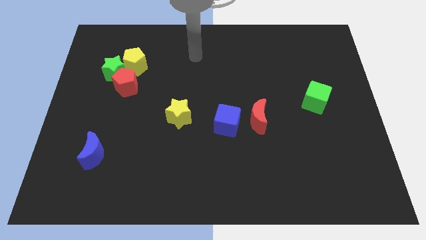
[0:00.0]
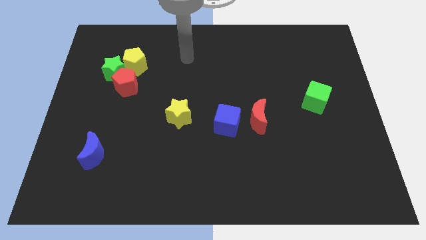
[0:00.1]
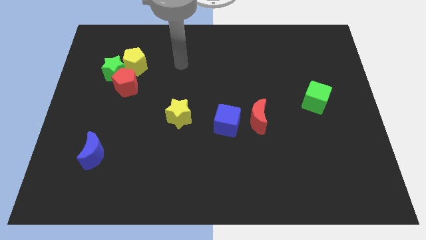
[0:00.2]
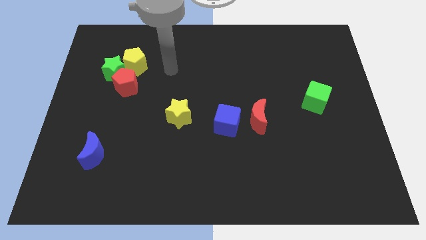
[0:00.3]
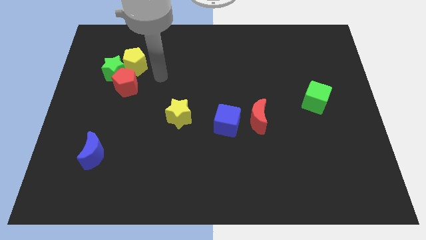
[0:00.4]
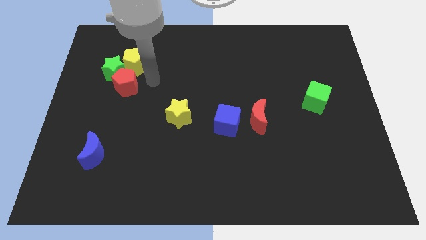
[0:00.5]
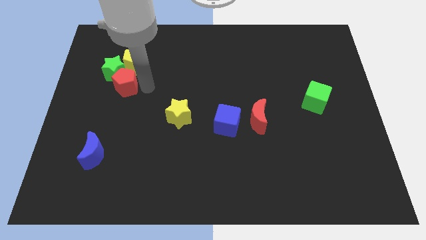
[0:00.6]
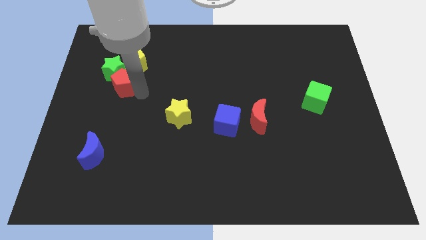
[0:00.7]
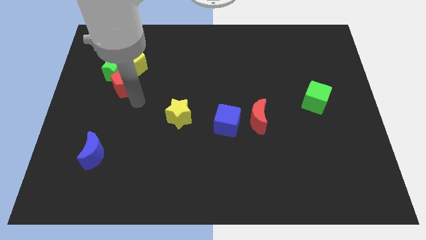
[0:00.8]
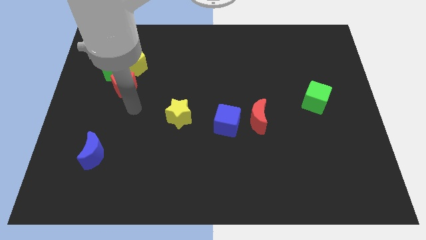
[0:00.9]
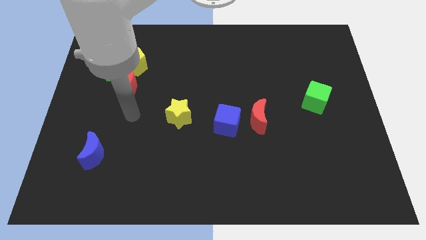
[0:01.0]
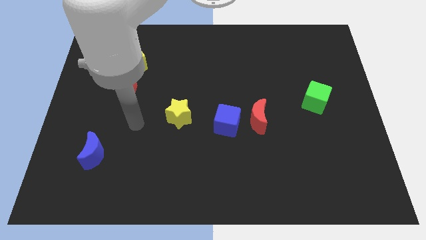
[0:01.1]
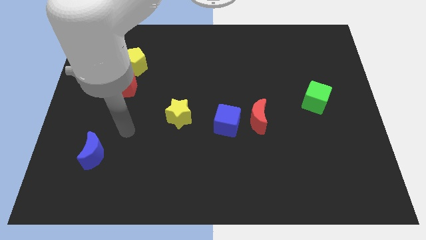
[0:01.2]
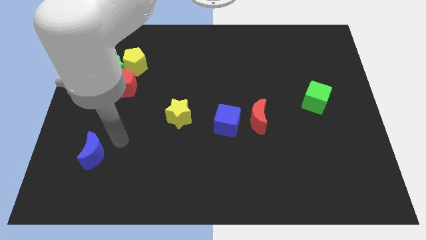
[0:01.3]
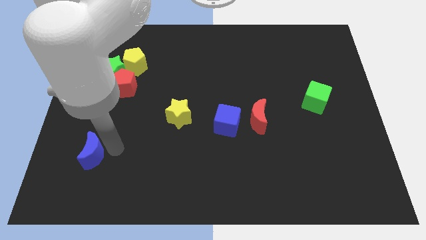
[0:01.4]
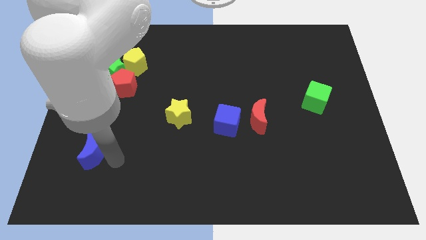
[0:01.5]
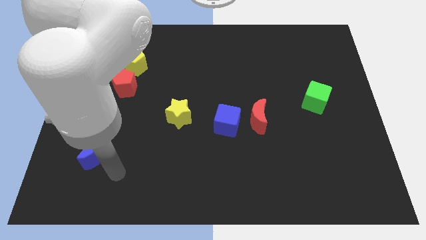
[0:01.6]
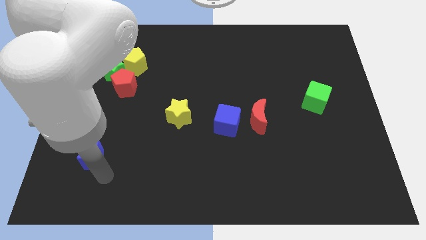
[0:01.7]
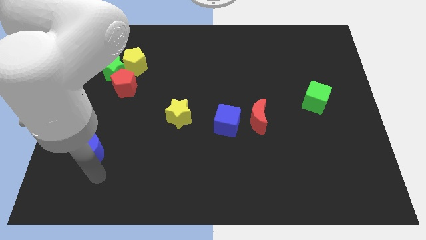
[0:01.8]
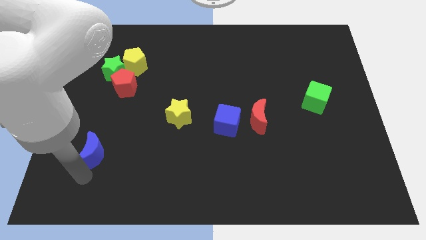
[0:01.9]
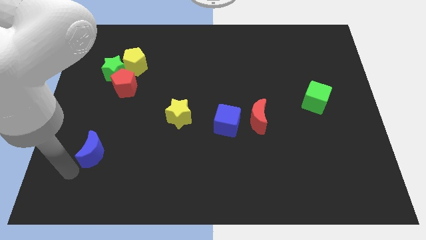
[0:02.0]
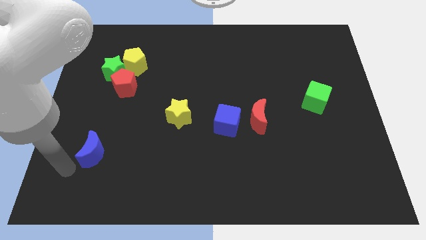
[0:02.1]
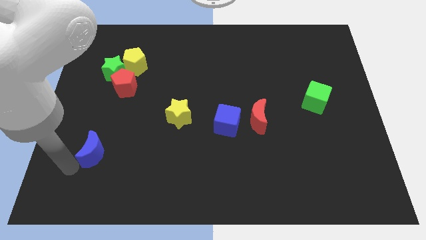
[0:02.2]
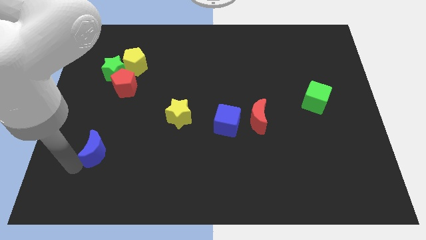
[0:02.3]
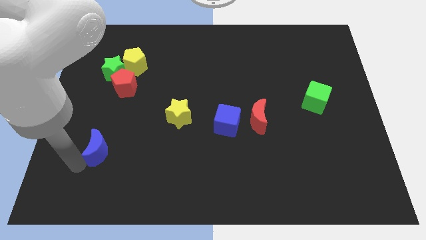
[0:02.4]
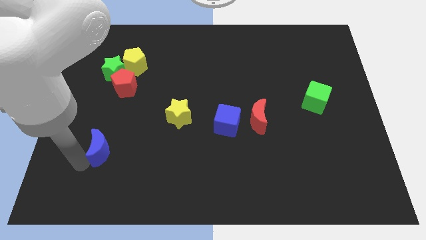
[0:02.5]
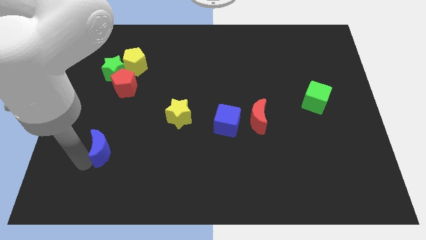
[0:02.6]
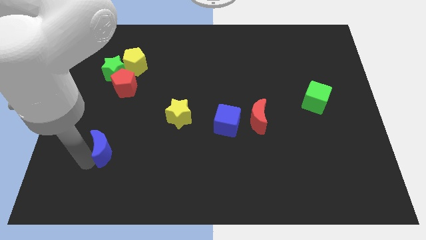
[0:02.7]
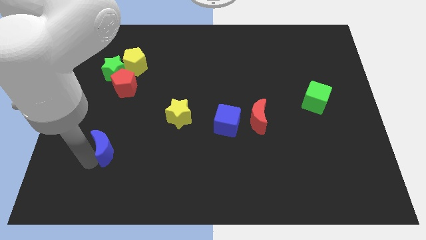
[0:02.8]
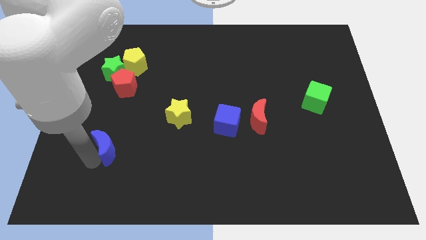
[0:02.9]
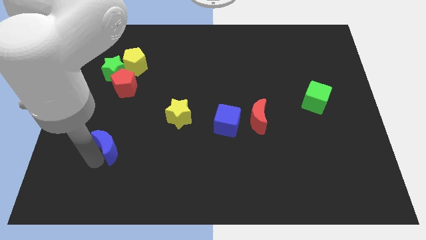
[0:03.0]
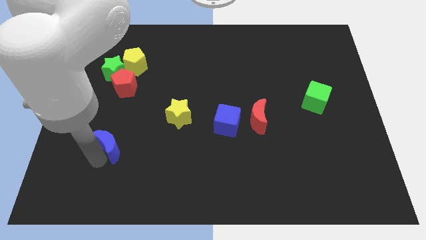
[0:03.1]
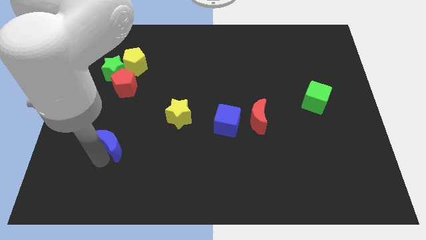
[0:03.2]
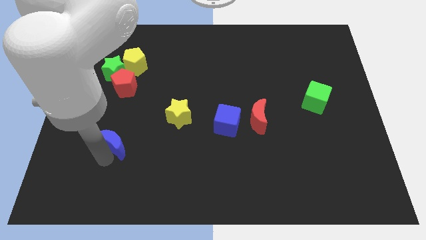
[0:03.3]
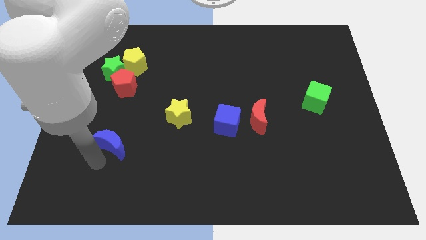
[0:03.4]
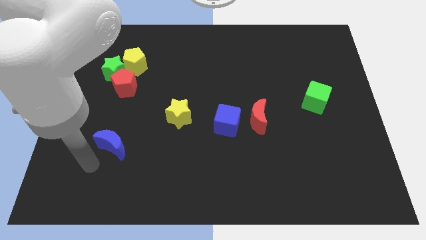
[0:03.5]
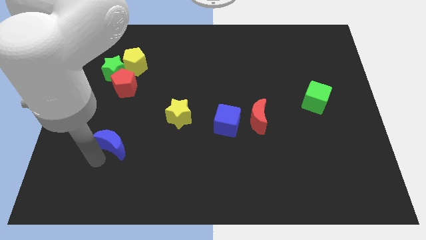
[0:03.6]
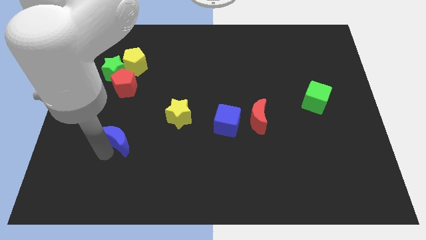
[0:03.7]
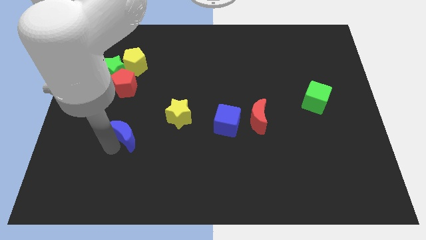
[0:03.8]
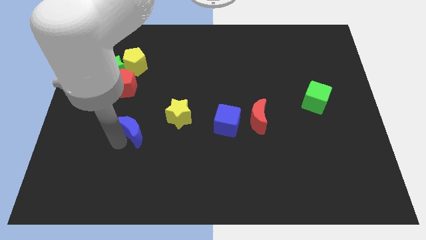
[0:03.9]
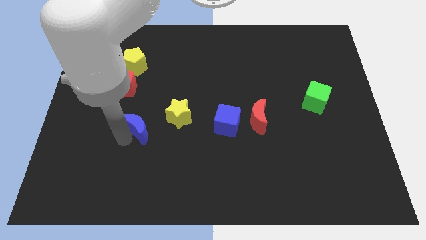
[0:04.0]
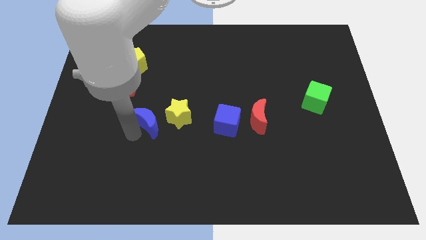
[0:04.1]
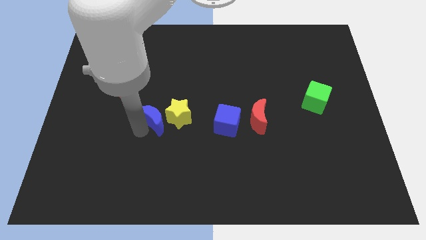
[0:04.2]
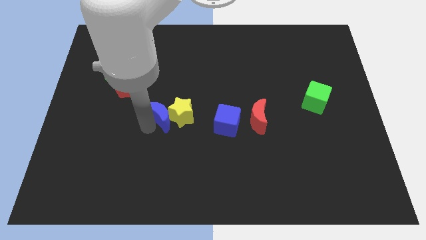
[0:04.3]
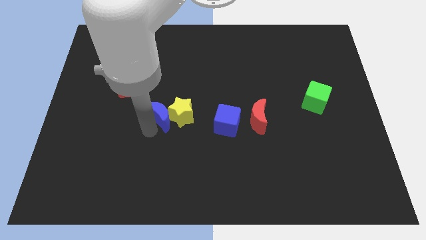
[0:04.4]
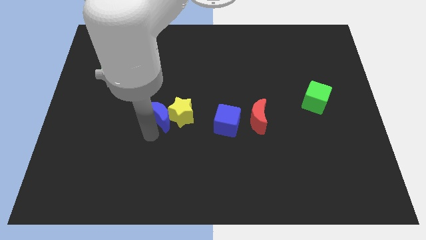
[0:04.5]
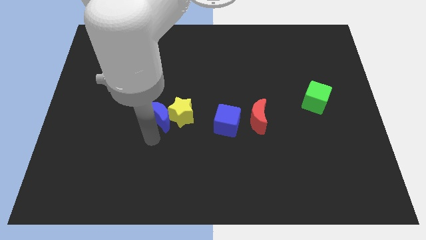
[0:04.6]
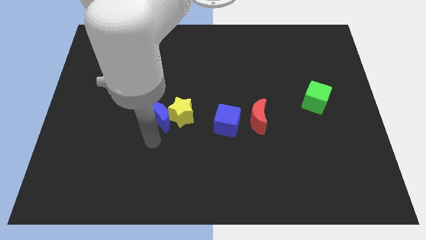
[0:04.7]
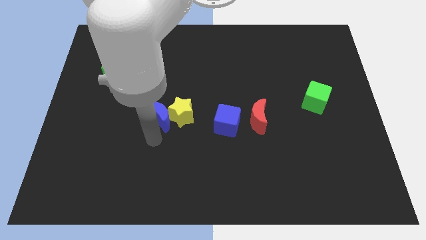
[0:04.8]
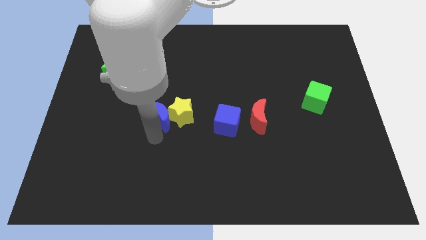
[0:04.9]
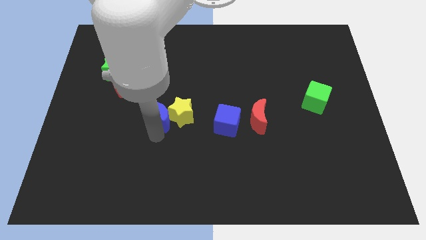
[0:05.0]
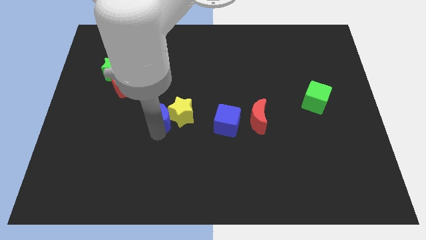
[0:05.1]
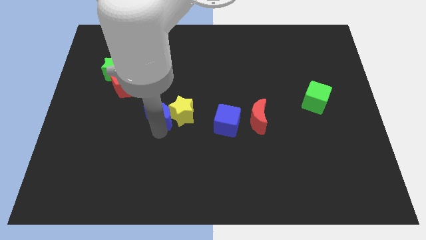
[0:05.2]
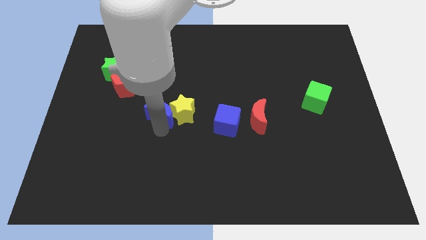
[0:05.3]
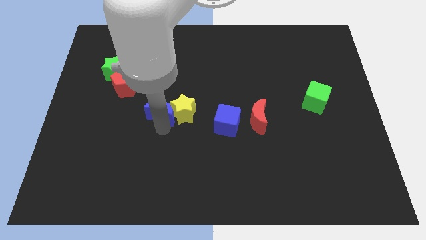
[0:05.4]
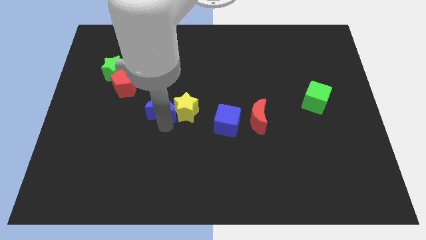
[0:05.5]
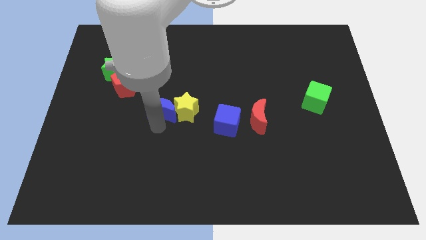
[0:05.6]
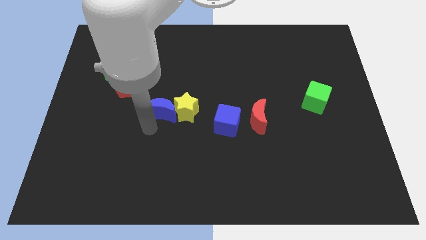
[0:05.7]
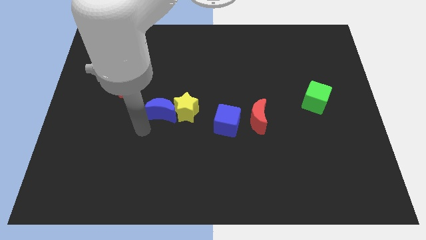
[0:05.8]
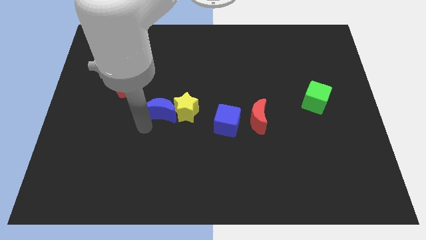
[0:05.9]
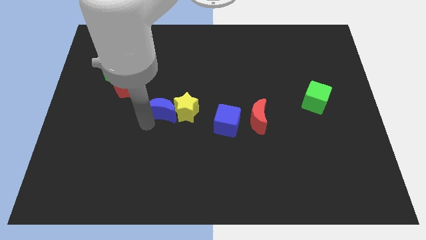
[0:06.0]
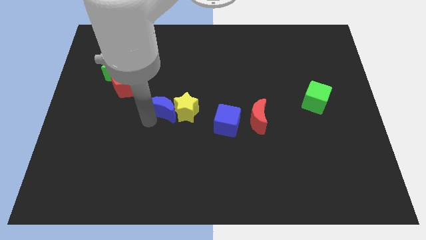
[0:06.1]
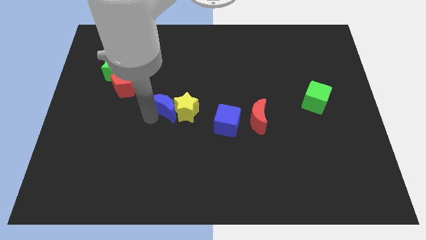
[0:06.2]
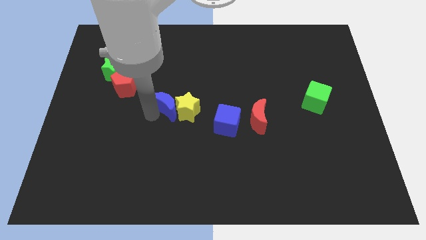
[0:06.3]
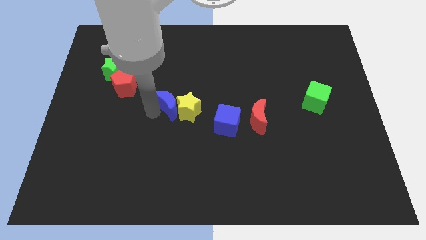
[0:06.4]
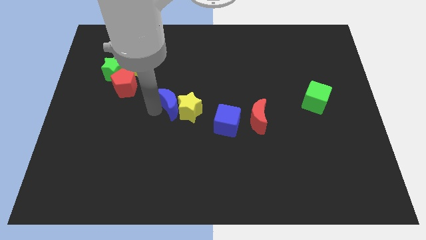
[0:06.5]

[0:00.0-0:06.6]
move the blue moon up and then to the right

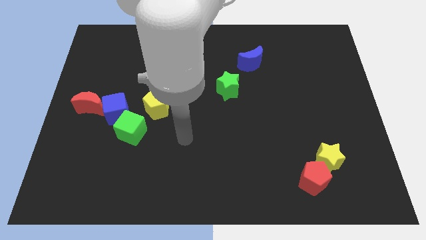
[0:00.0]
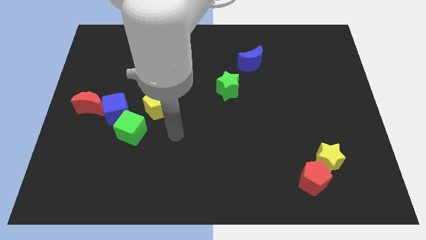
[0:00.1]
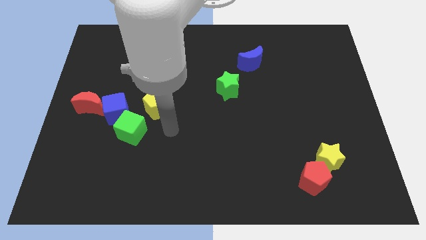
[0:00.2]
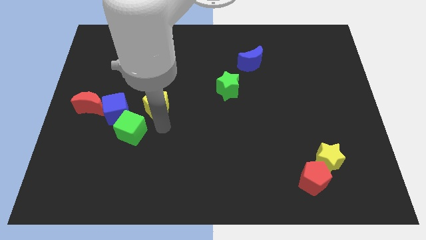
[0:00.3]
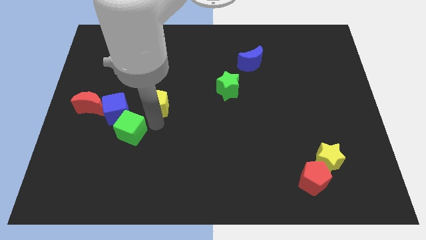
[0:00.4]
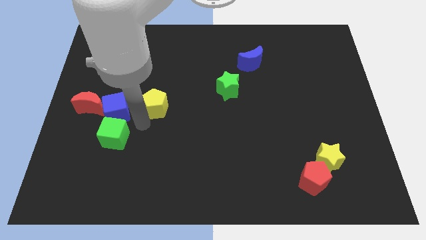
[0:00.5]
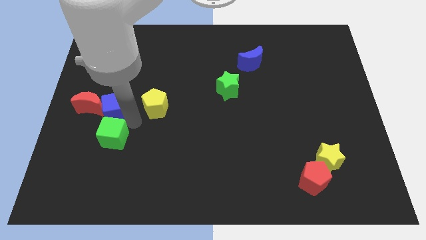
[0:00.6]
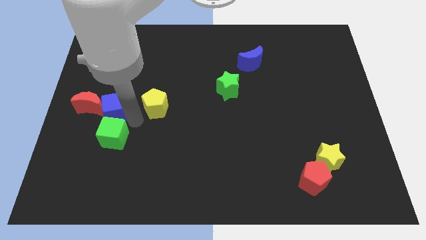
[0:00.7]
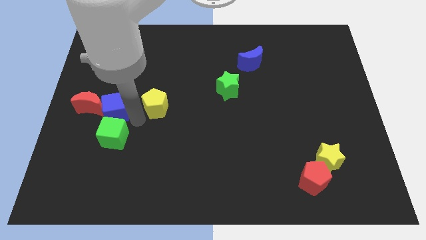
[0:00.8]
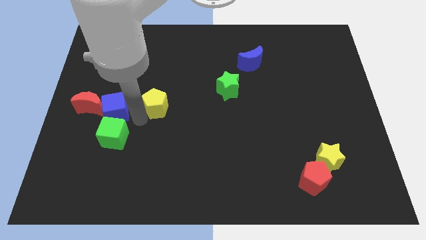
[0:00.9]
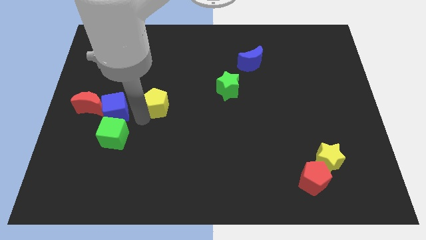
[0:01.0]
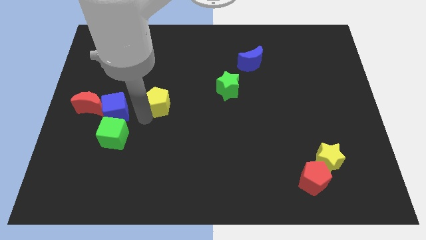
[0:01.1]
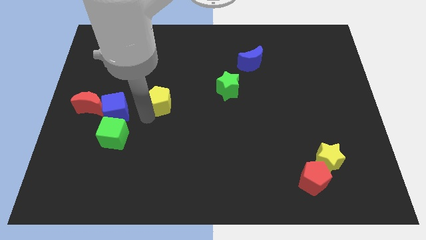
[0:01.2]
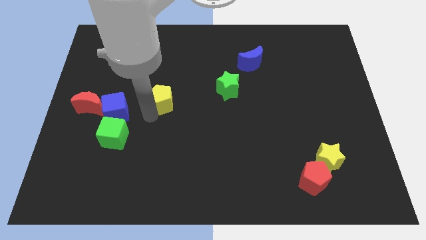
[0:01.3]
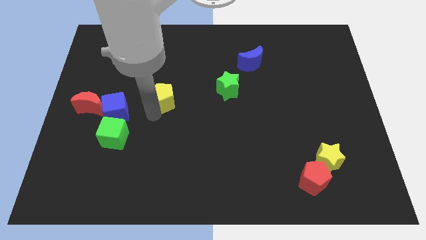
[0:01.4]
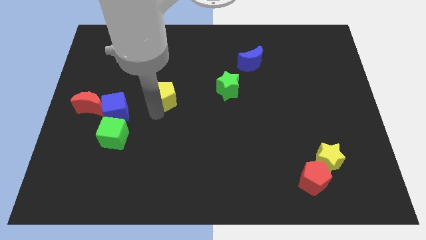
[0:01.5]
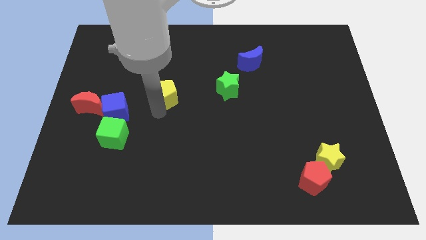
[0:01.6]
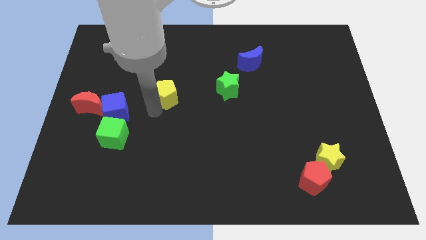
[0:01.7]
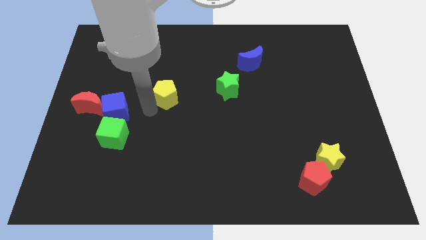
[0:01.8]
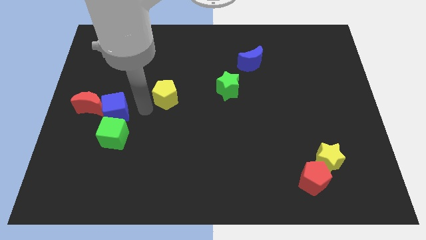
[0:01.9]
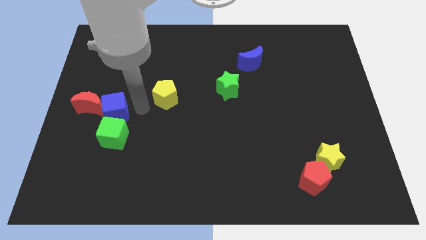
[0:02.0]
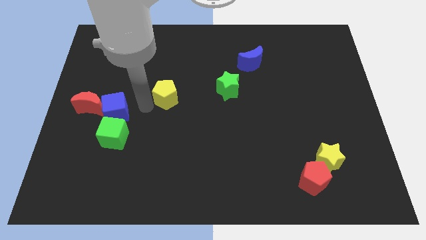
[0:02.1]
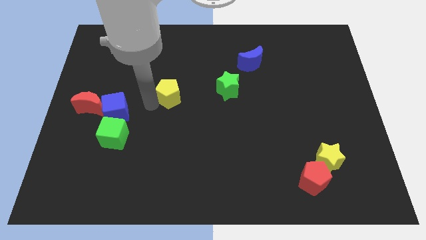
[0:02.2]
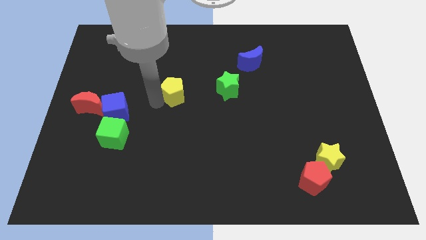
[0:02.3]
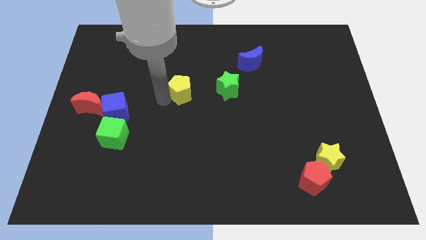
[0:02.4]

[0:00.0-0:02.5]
slide the yellow pentagon up and then to the right a little bit
